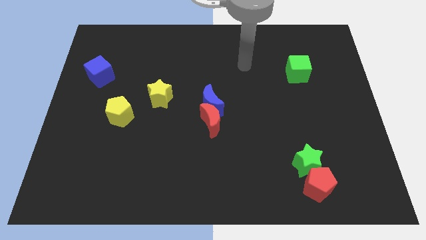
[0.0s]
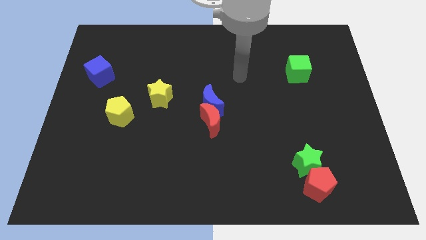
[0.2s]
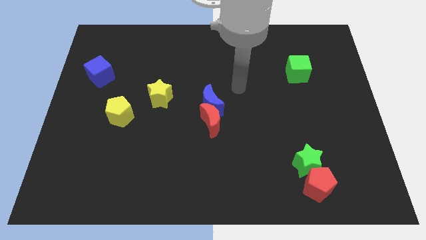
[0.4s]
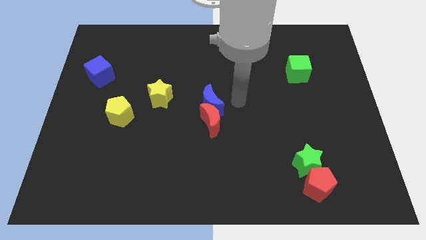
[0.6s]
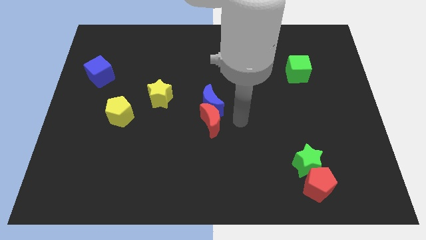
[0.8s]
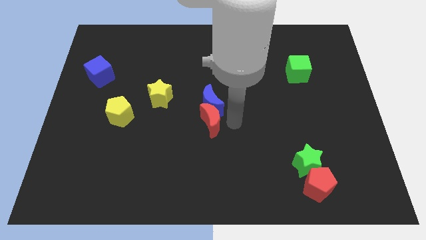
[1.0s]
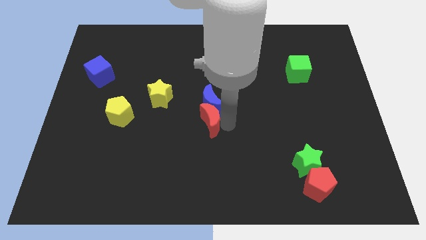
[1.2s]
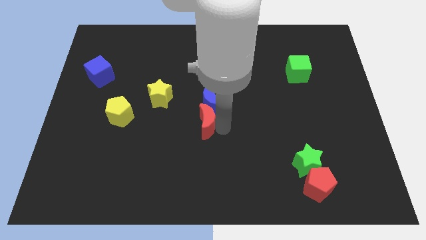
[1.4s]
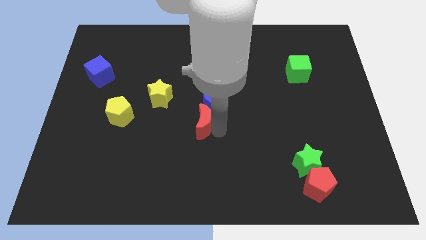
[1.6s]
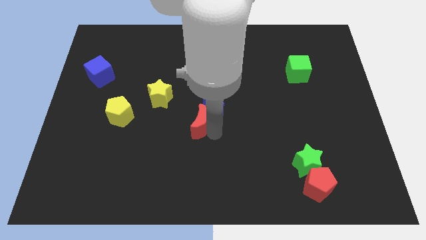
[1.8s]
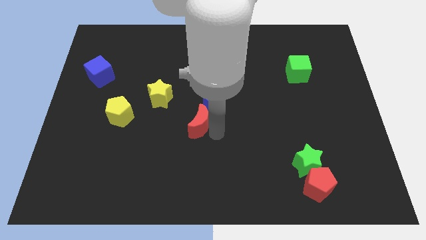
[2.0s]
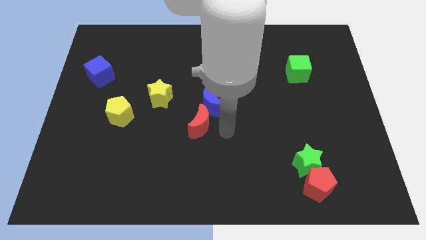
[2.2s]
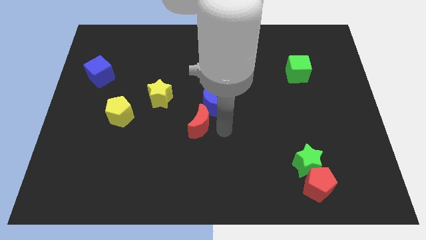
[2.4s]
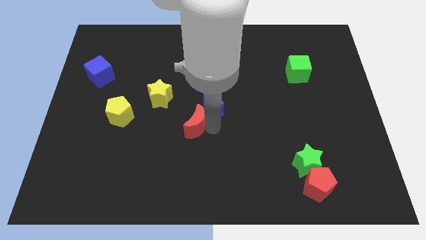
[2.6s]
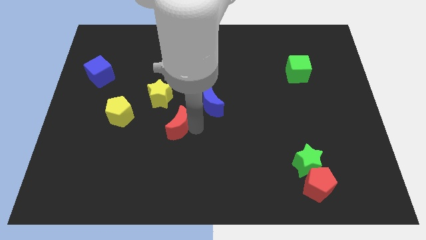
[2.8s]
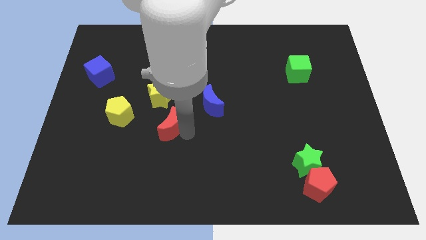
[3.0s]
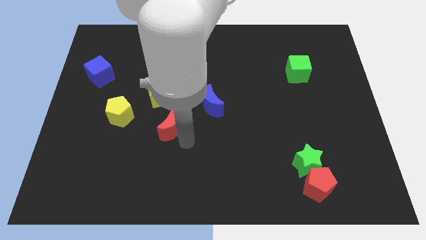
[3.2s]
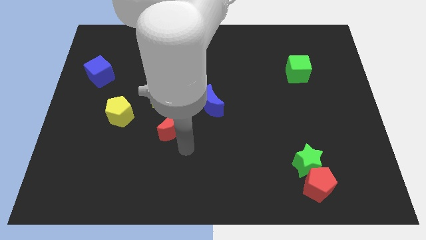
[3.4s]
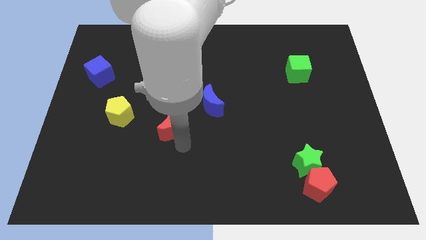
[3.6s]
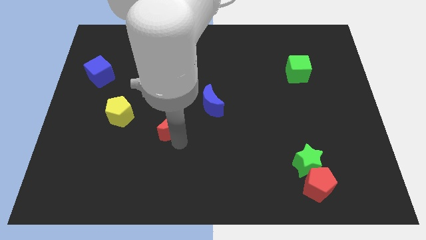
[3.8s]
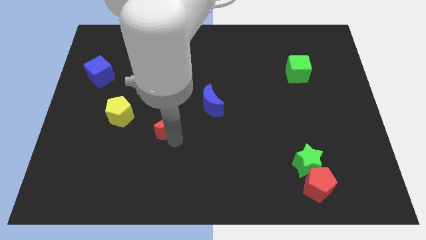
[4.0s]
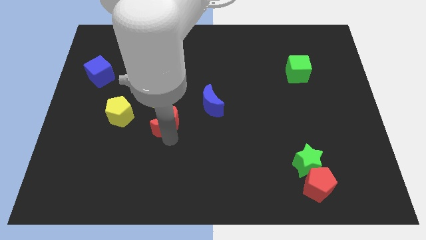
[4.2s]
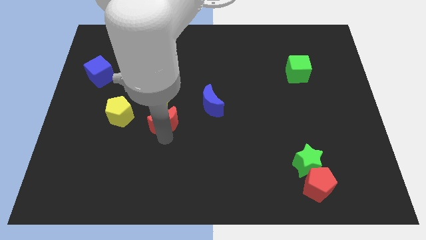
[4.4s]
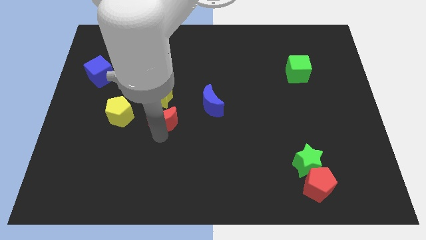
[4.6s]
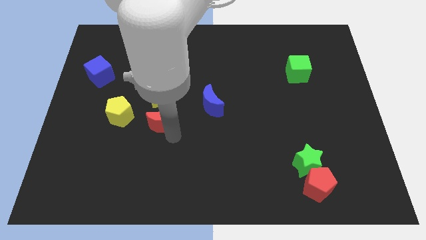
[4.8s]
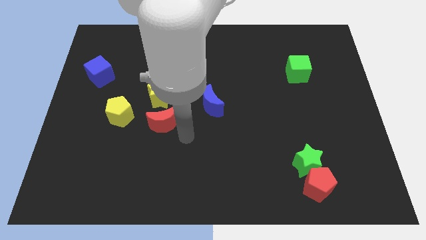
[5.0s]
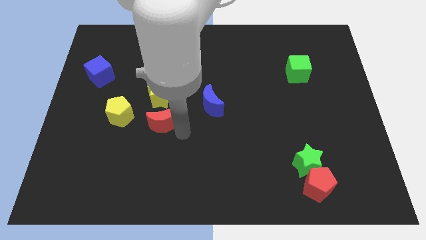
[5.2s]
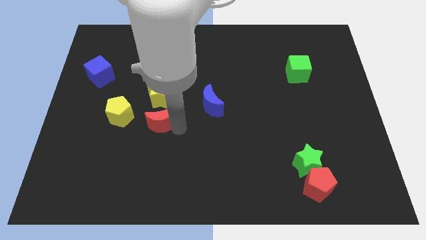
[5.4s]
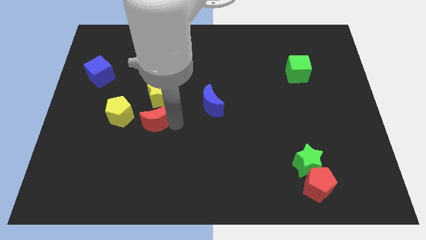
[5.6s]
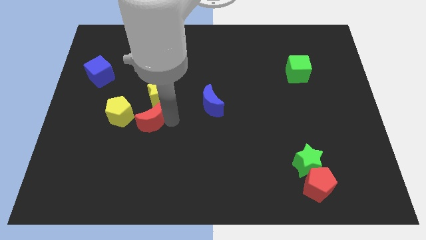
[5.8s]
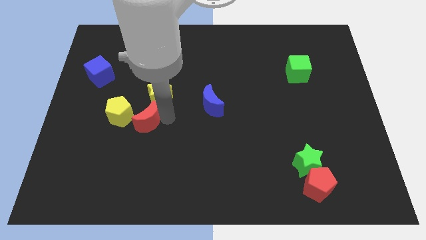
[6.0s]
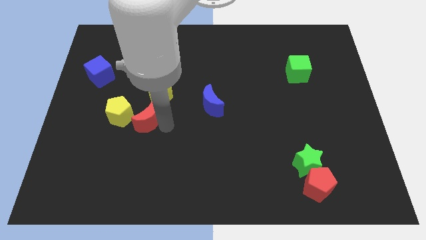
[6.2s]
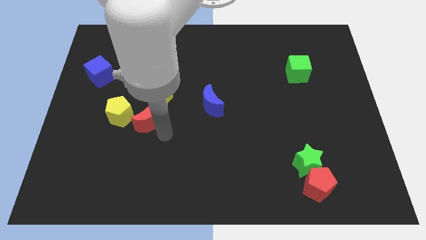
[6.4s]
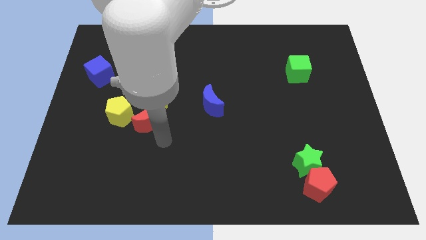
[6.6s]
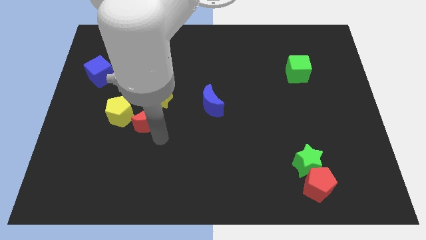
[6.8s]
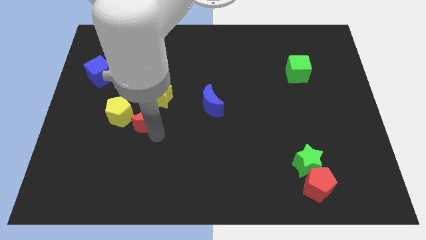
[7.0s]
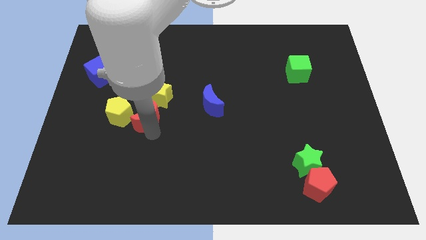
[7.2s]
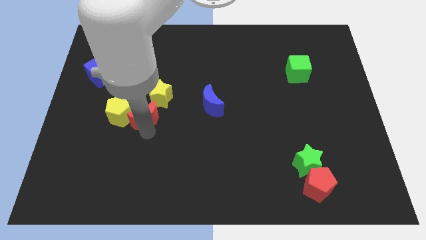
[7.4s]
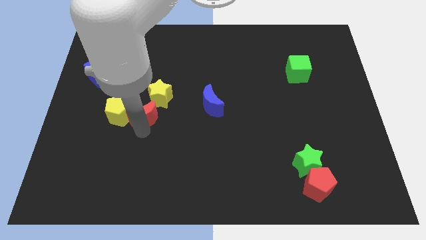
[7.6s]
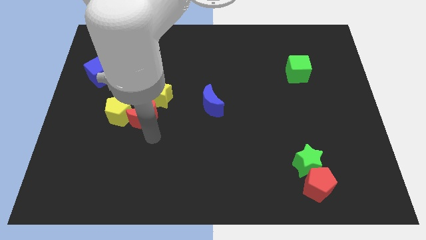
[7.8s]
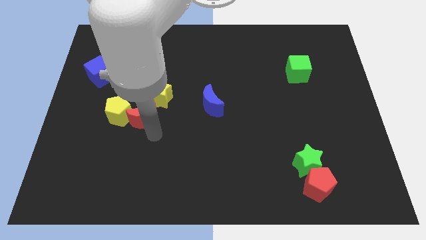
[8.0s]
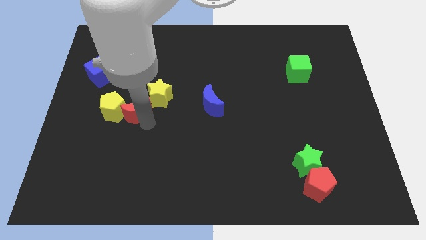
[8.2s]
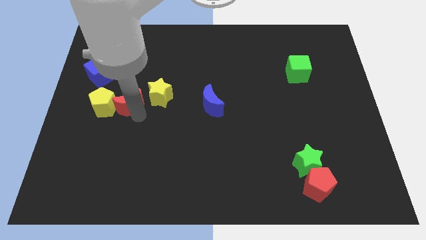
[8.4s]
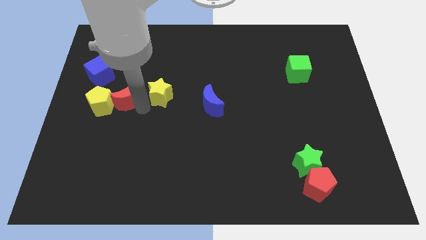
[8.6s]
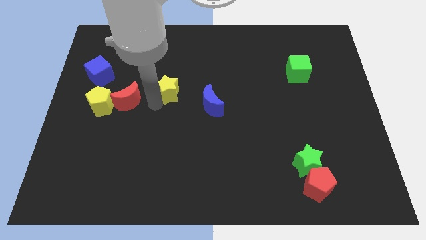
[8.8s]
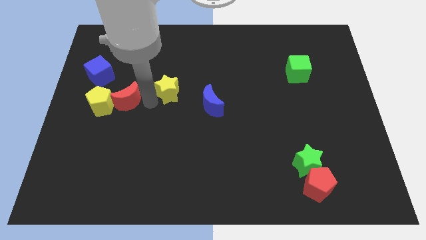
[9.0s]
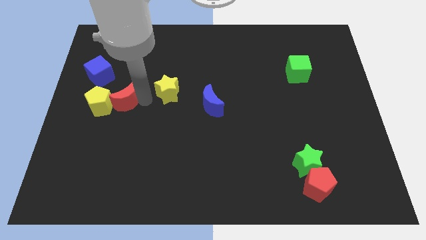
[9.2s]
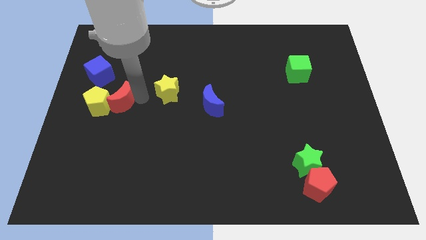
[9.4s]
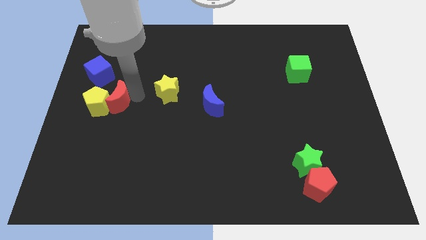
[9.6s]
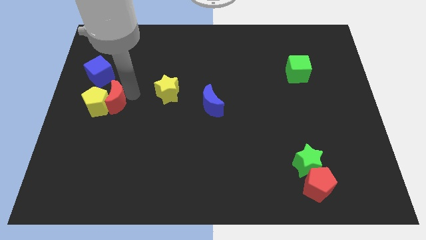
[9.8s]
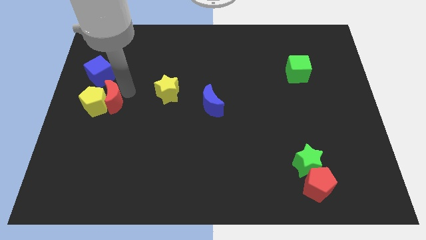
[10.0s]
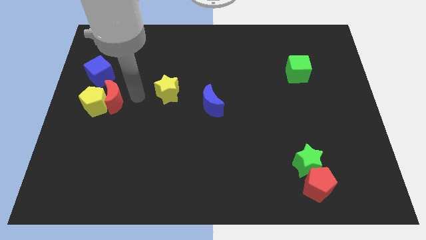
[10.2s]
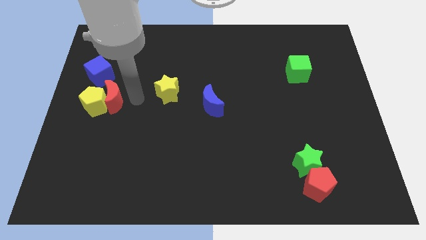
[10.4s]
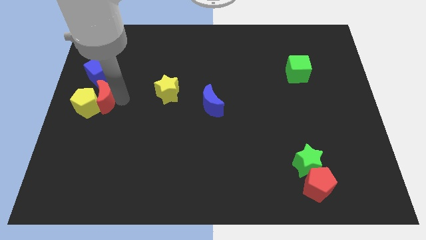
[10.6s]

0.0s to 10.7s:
move the red moon to the left side

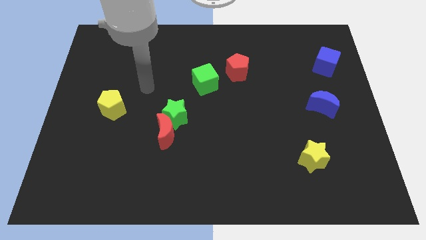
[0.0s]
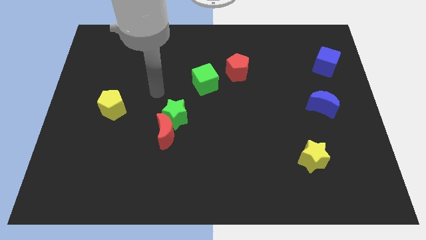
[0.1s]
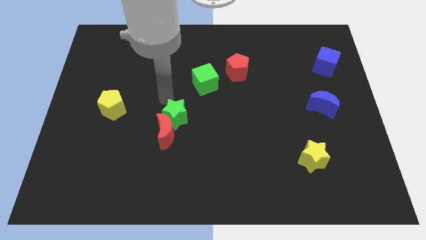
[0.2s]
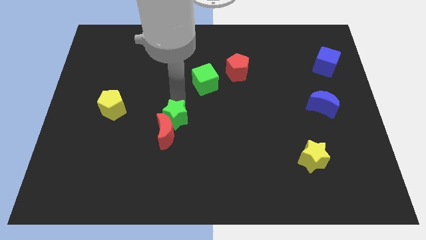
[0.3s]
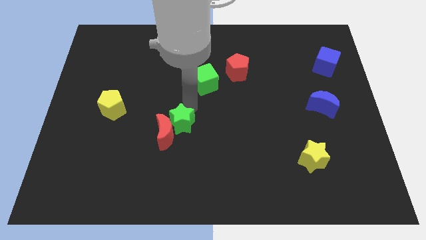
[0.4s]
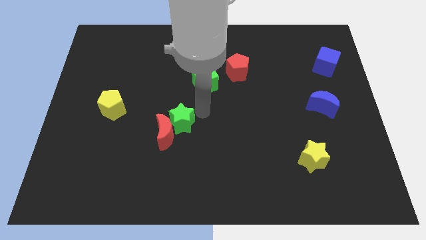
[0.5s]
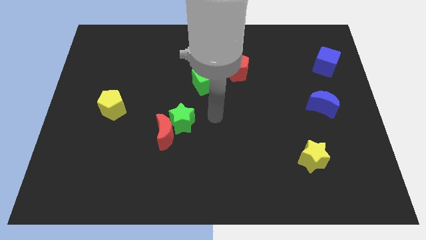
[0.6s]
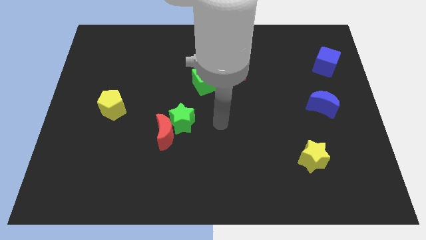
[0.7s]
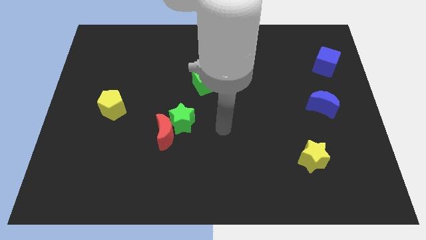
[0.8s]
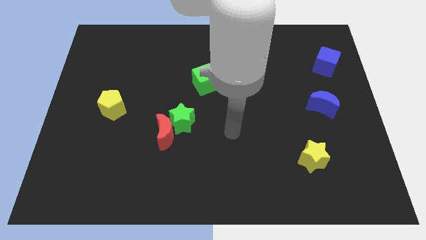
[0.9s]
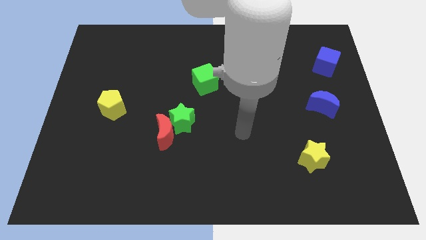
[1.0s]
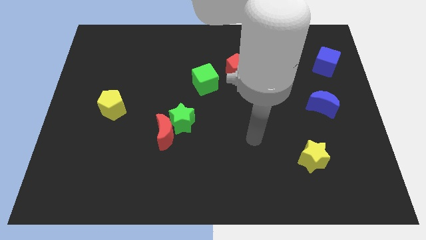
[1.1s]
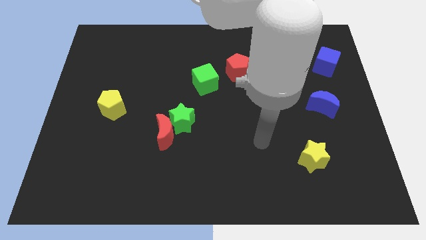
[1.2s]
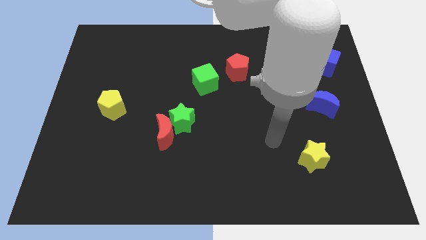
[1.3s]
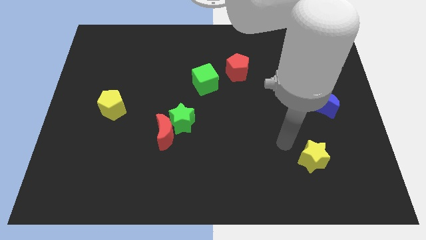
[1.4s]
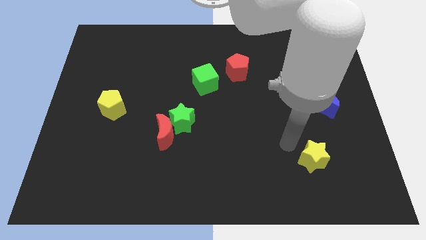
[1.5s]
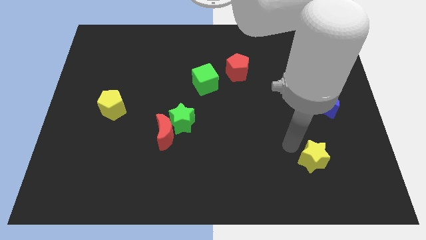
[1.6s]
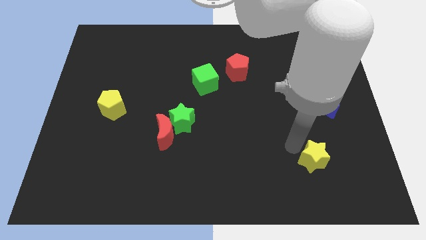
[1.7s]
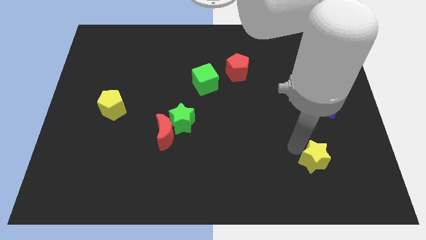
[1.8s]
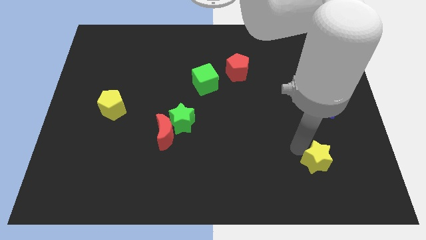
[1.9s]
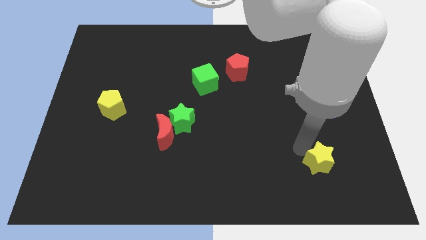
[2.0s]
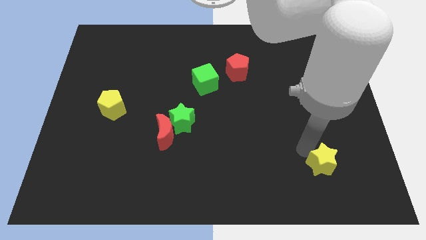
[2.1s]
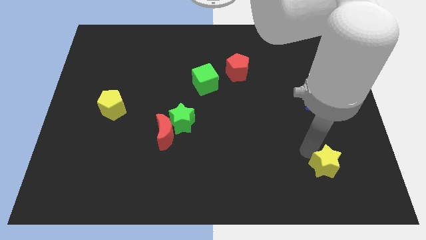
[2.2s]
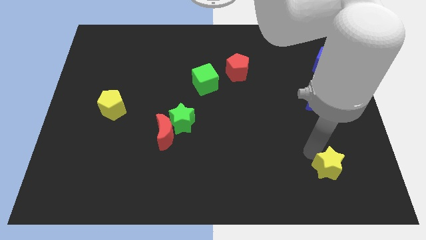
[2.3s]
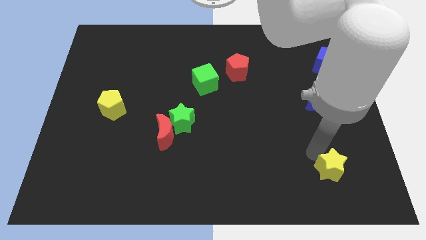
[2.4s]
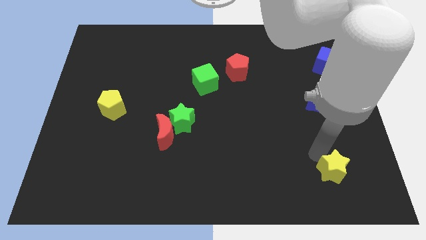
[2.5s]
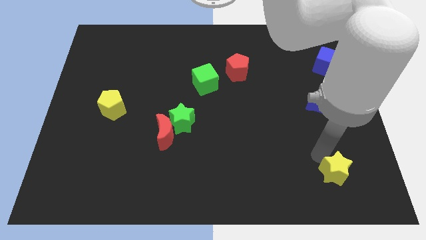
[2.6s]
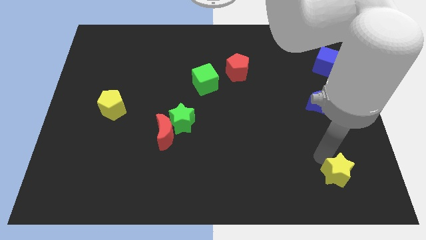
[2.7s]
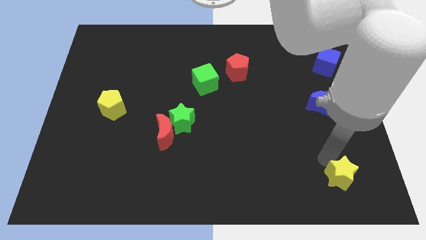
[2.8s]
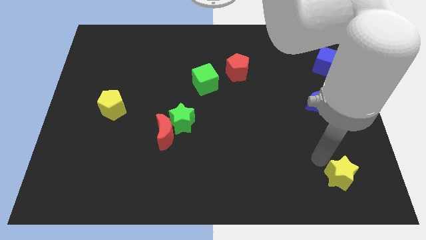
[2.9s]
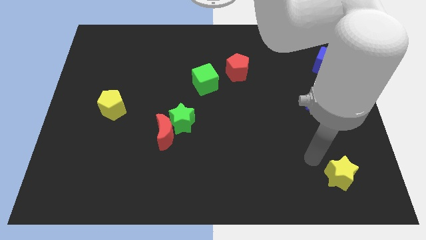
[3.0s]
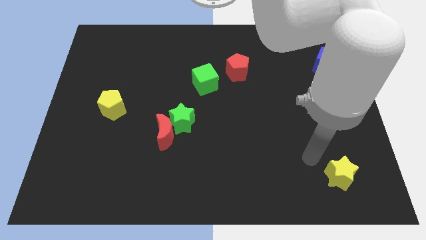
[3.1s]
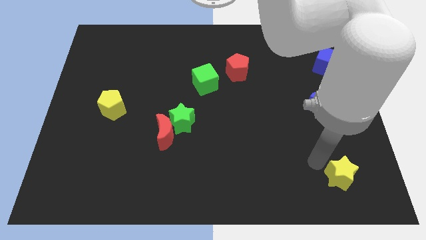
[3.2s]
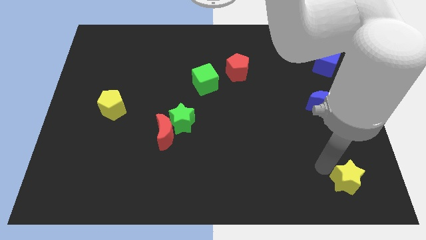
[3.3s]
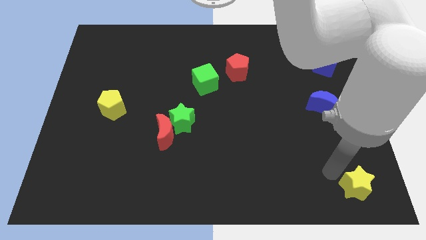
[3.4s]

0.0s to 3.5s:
slide the yellow star to the bottom right of the board
